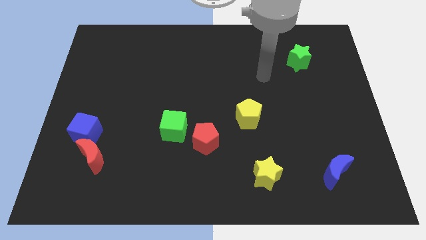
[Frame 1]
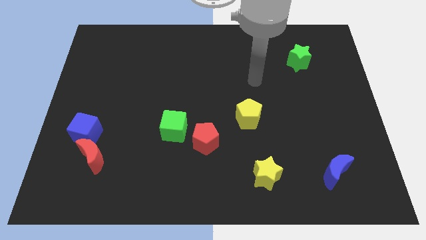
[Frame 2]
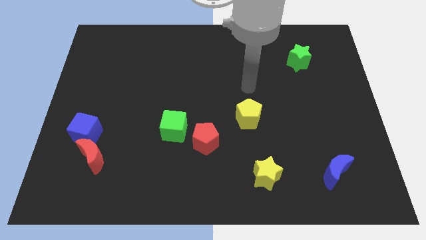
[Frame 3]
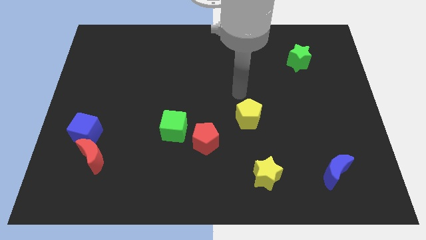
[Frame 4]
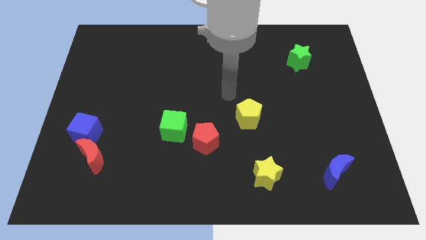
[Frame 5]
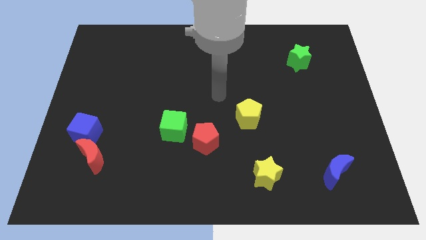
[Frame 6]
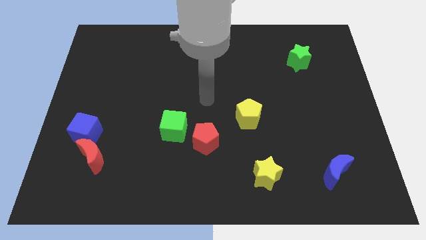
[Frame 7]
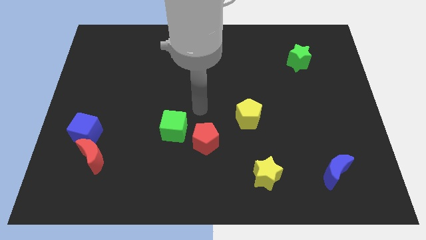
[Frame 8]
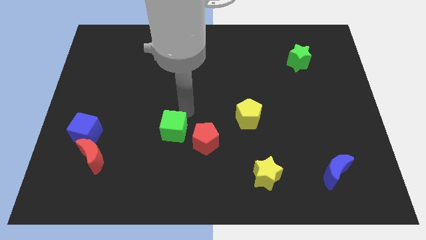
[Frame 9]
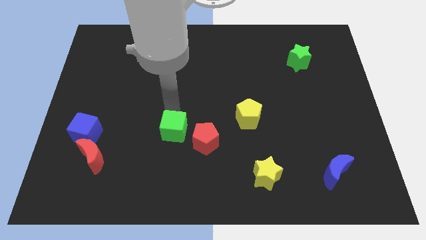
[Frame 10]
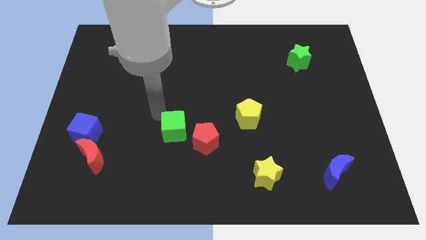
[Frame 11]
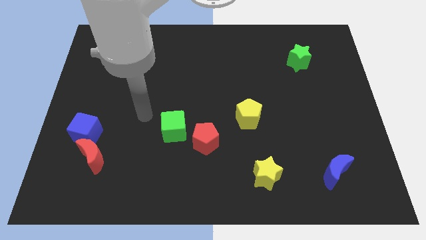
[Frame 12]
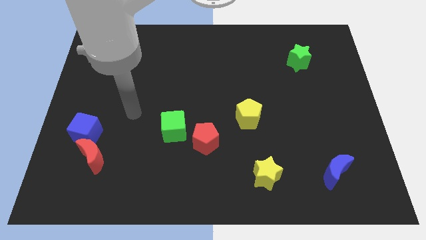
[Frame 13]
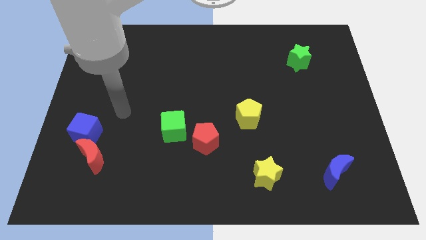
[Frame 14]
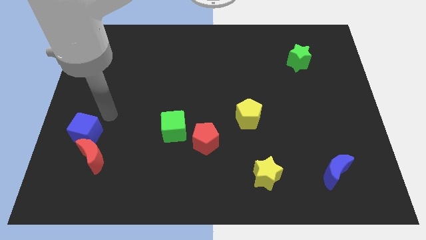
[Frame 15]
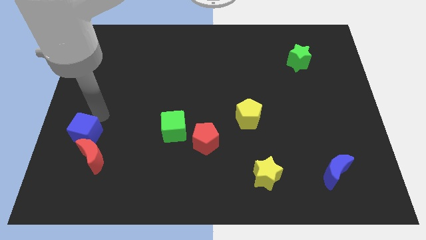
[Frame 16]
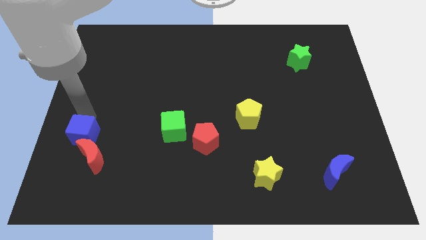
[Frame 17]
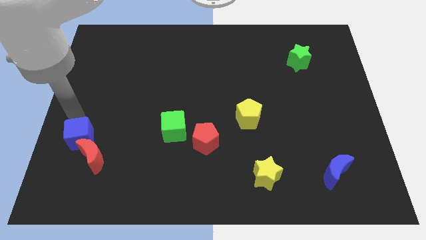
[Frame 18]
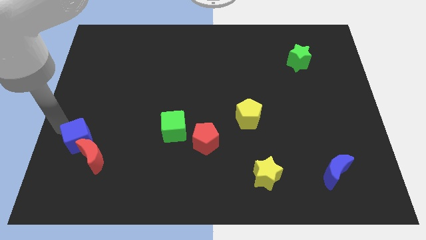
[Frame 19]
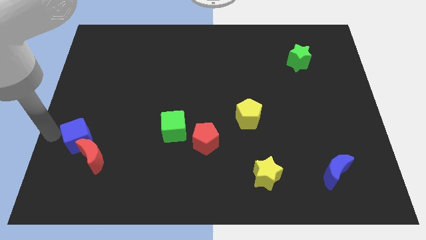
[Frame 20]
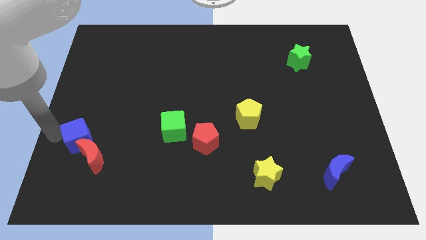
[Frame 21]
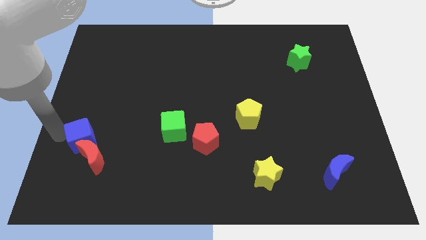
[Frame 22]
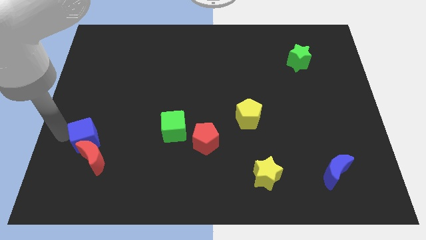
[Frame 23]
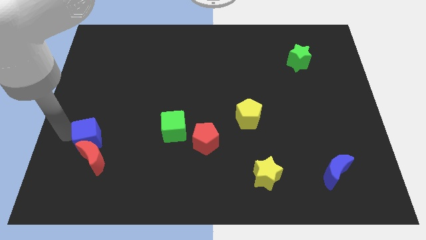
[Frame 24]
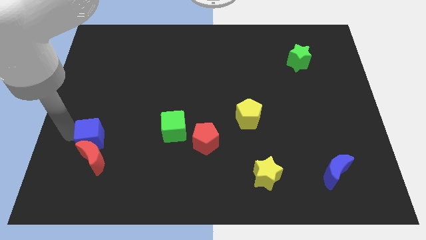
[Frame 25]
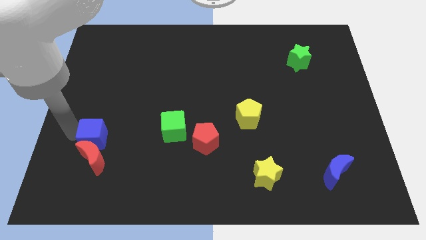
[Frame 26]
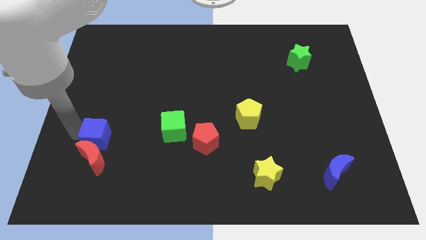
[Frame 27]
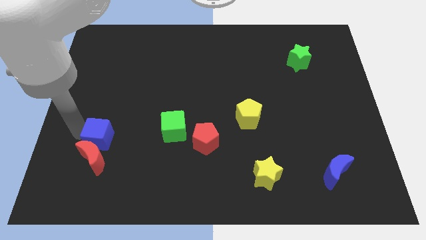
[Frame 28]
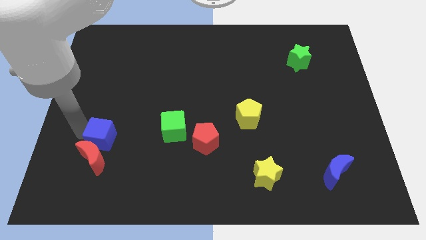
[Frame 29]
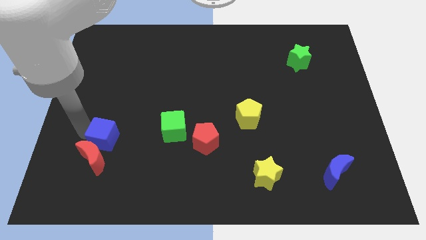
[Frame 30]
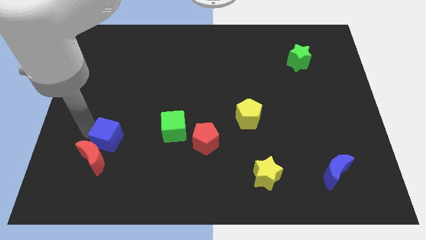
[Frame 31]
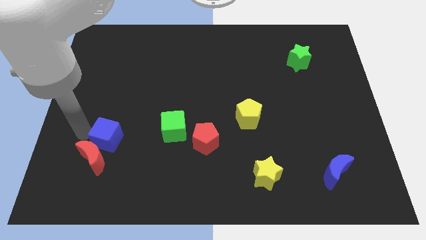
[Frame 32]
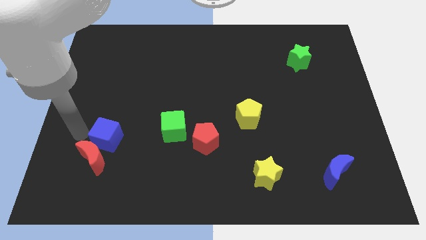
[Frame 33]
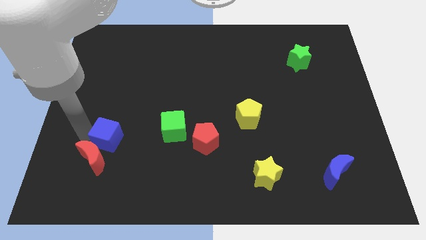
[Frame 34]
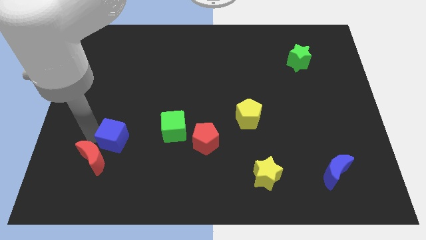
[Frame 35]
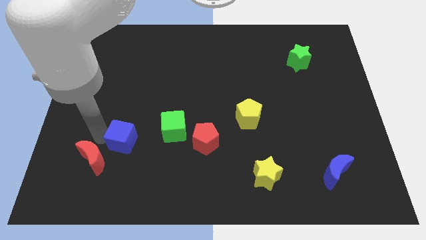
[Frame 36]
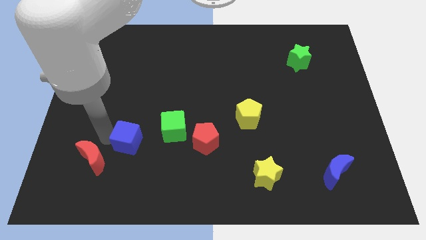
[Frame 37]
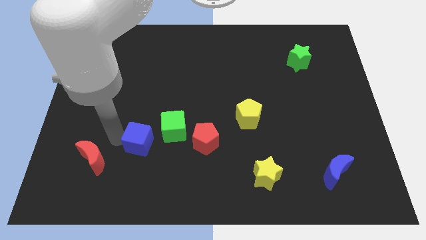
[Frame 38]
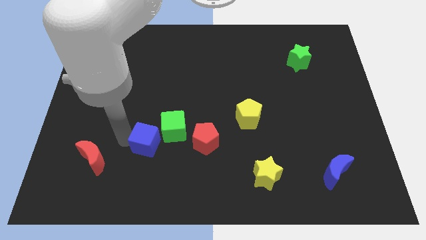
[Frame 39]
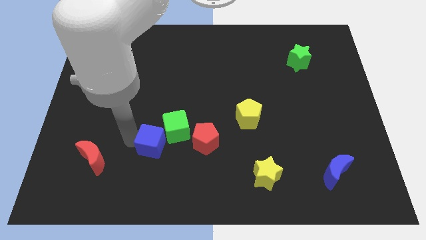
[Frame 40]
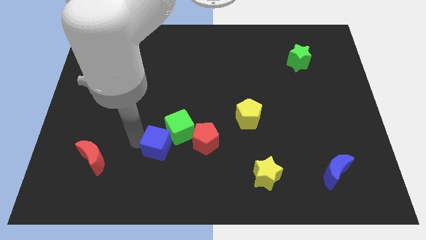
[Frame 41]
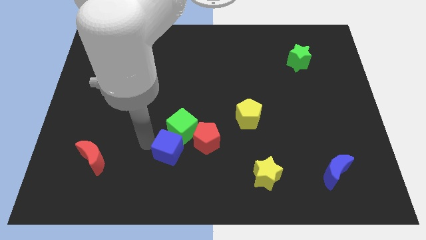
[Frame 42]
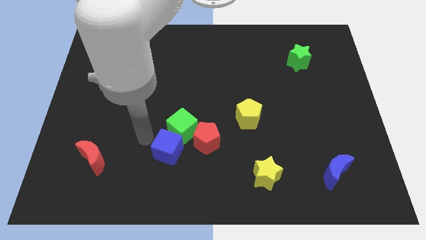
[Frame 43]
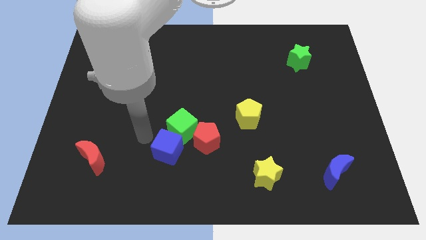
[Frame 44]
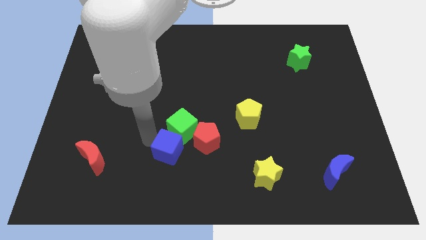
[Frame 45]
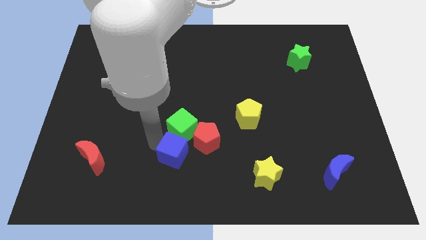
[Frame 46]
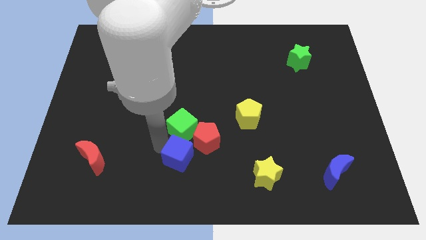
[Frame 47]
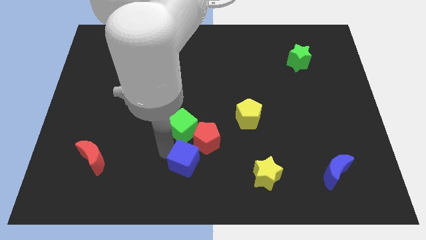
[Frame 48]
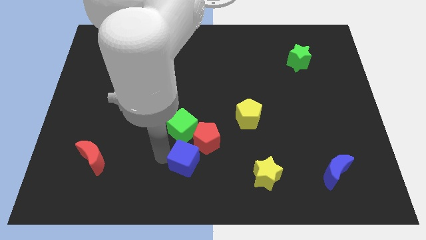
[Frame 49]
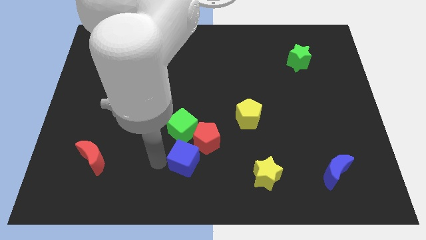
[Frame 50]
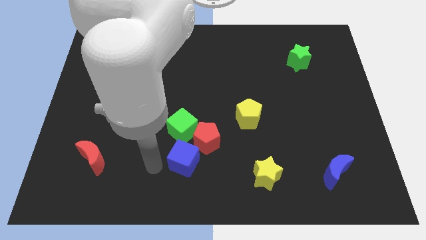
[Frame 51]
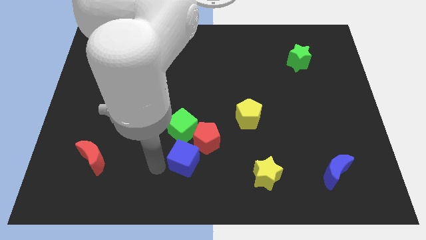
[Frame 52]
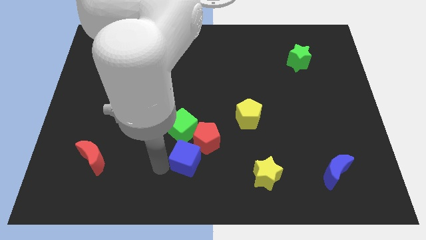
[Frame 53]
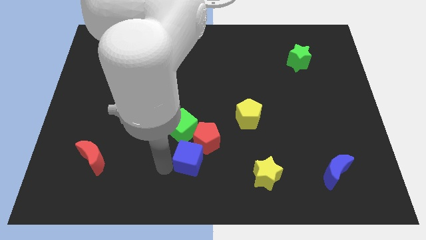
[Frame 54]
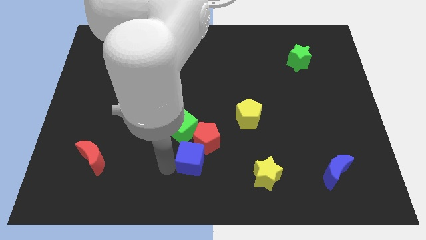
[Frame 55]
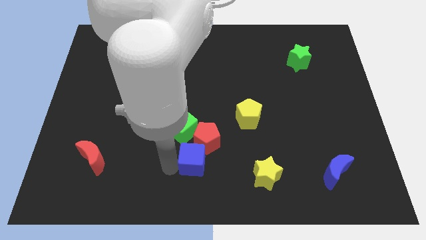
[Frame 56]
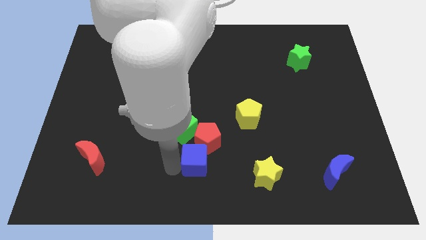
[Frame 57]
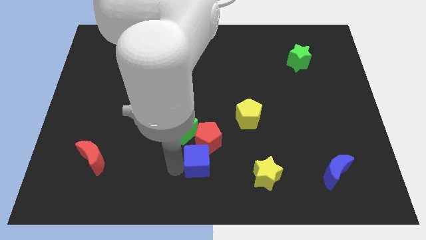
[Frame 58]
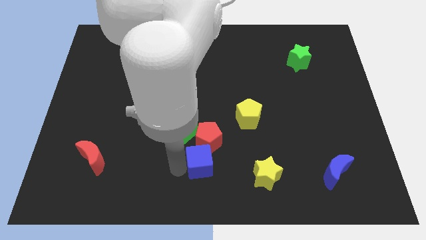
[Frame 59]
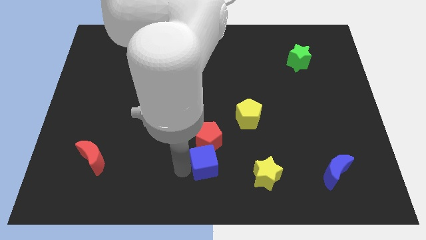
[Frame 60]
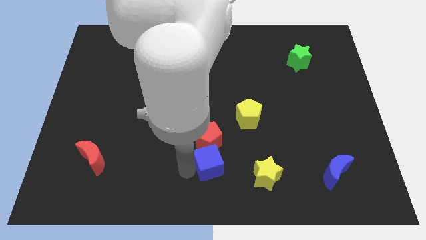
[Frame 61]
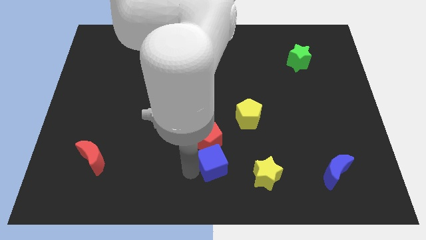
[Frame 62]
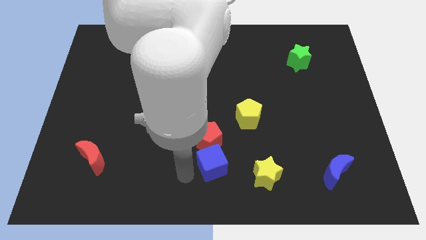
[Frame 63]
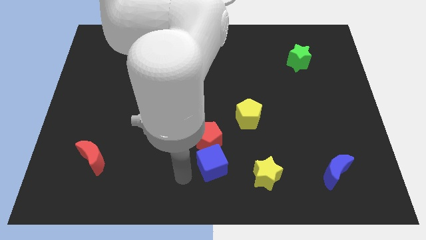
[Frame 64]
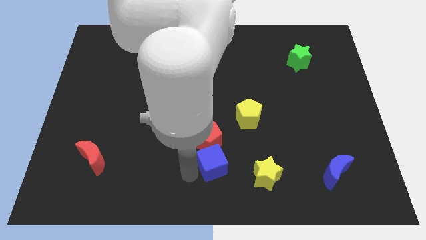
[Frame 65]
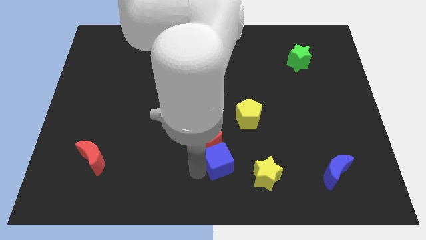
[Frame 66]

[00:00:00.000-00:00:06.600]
put the blue cube to the top left side of the yellow star
